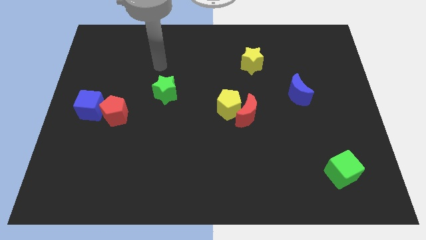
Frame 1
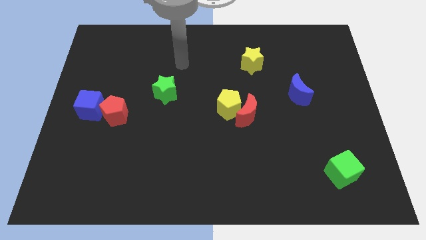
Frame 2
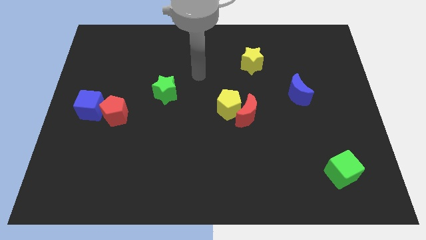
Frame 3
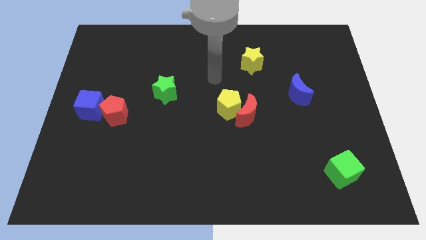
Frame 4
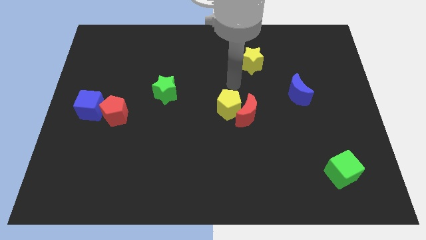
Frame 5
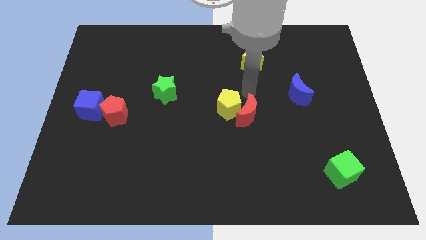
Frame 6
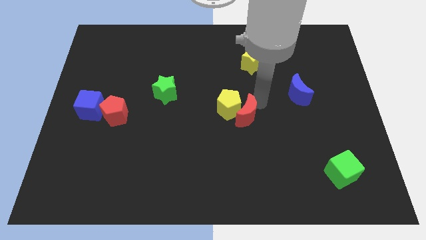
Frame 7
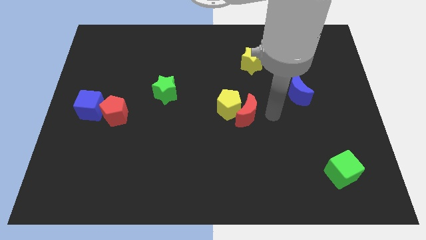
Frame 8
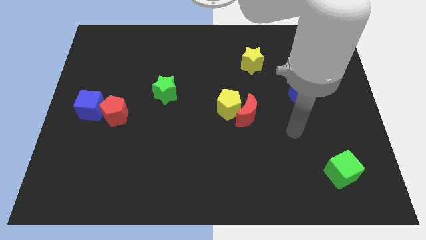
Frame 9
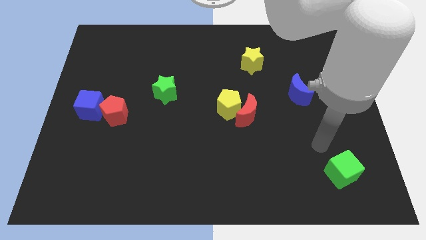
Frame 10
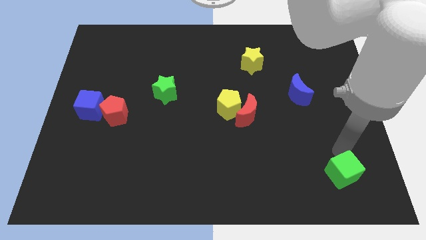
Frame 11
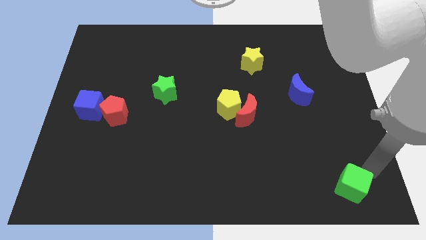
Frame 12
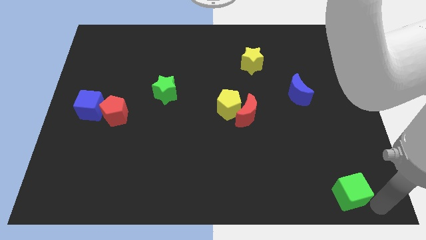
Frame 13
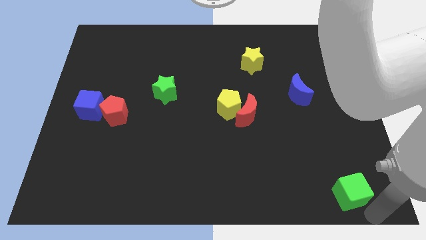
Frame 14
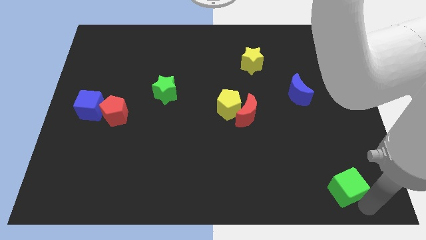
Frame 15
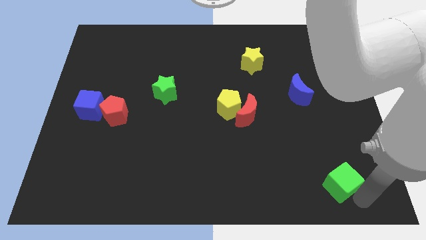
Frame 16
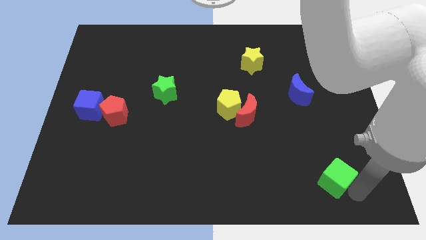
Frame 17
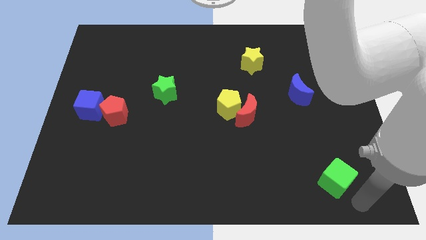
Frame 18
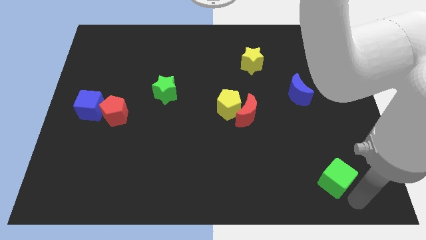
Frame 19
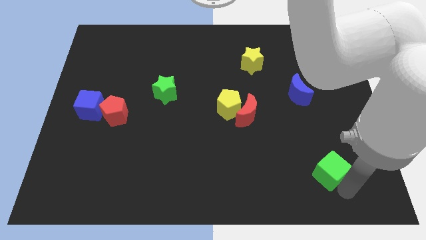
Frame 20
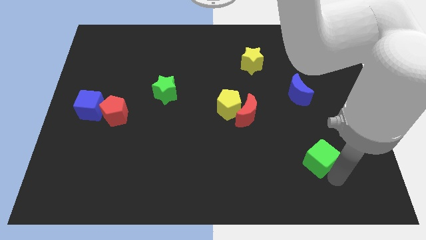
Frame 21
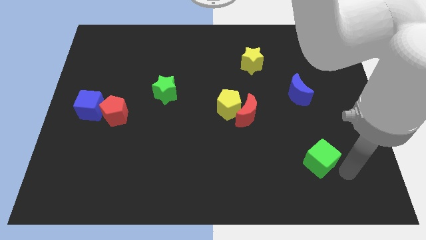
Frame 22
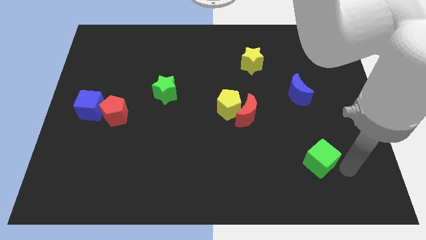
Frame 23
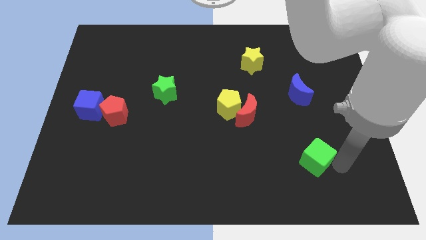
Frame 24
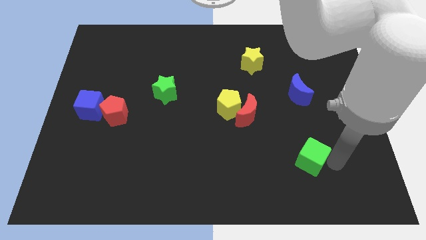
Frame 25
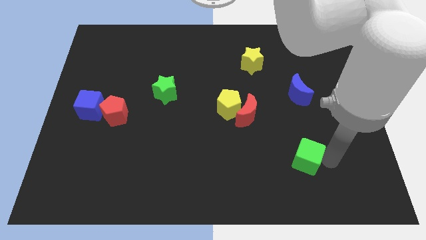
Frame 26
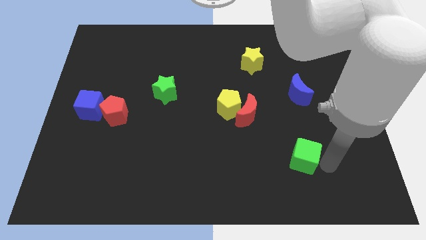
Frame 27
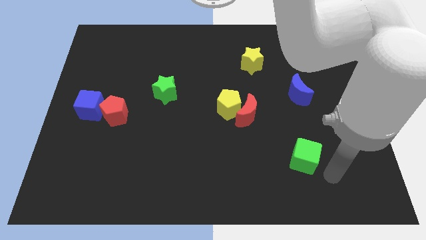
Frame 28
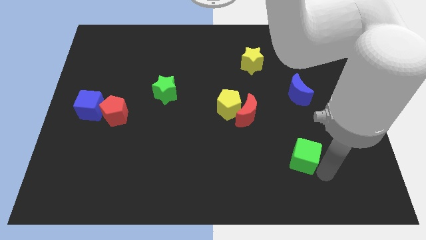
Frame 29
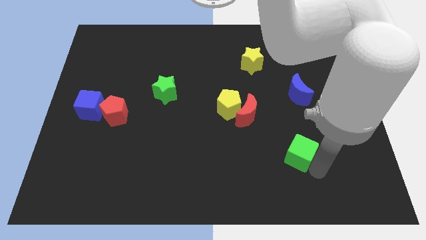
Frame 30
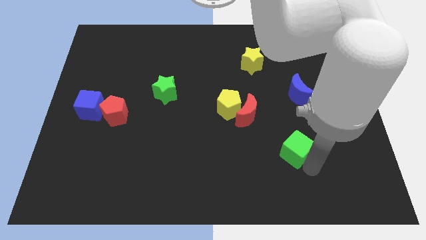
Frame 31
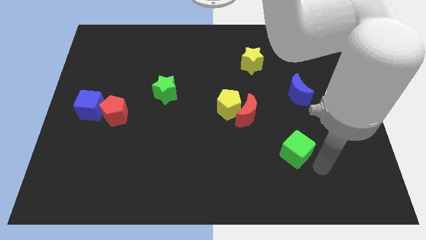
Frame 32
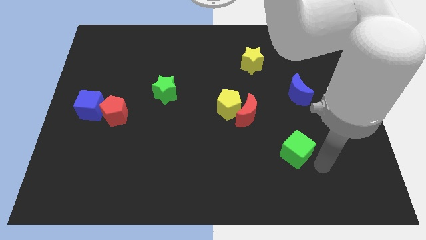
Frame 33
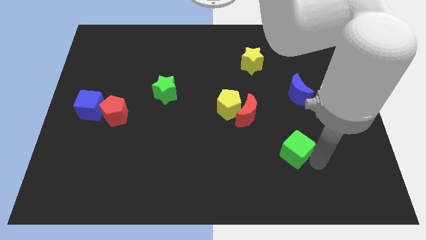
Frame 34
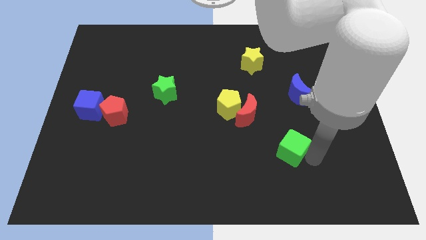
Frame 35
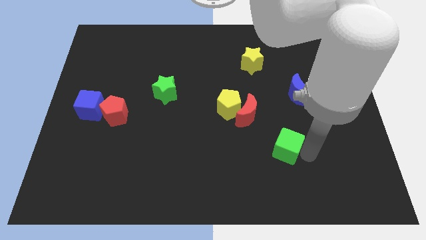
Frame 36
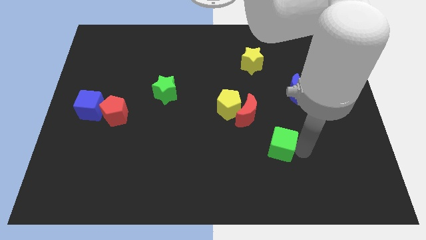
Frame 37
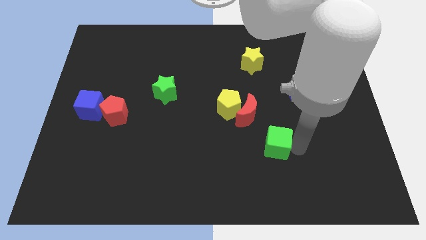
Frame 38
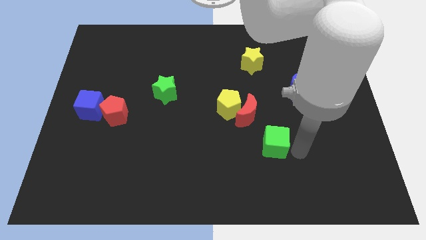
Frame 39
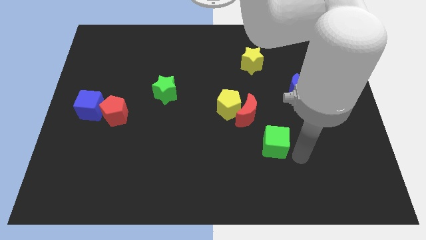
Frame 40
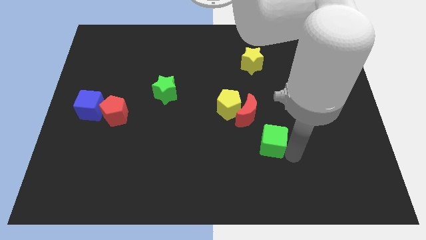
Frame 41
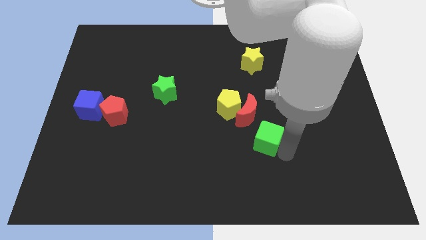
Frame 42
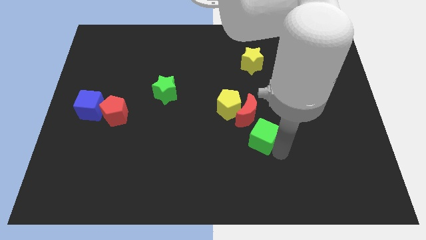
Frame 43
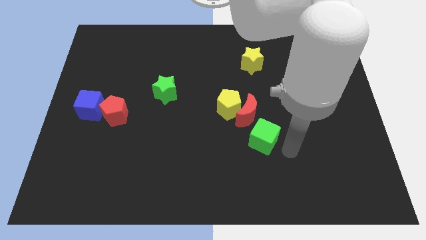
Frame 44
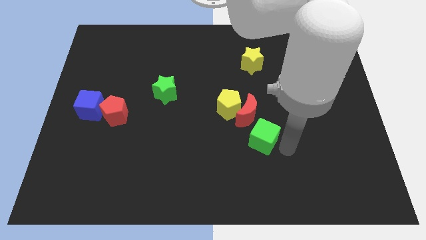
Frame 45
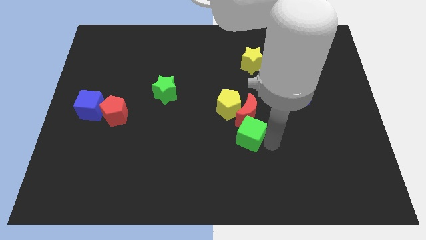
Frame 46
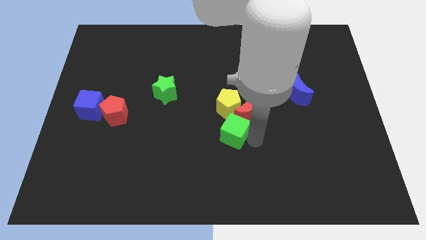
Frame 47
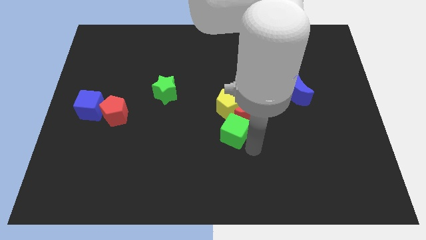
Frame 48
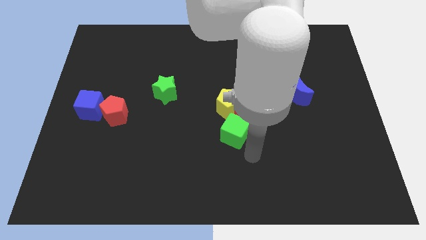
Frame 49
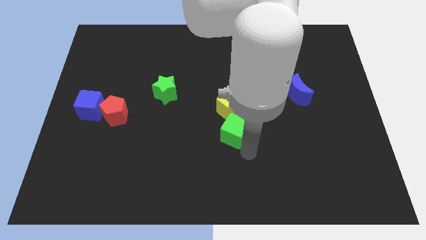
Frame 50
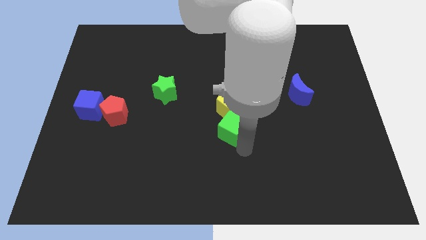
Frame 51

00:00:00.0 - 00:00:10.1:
put the green cube just left of the red moon

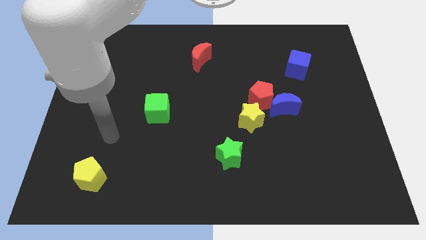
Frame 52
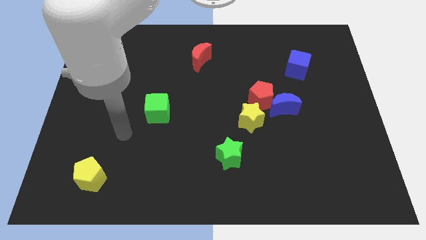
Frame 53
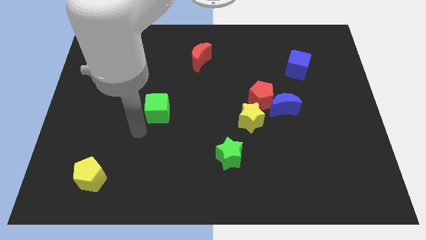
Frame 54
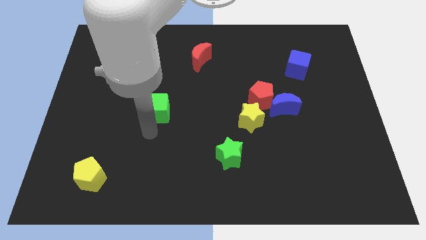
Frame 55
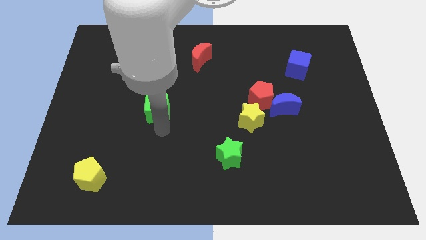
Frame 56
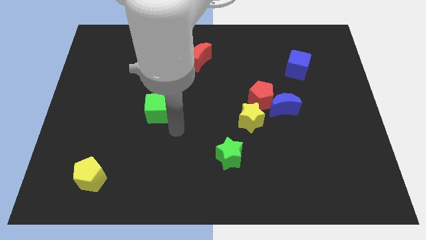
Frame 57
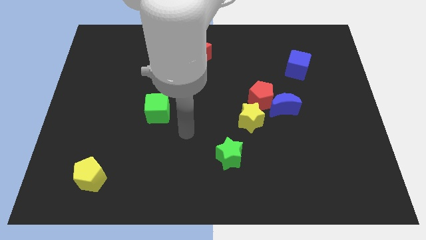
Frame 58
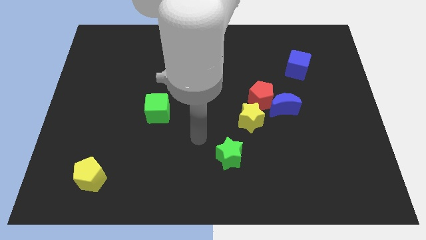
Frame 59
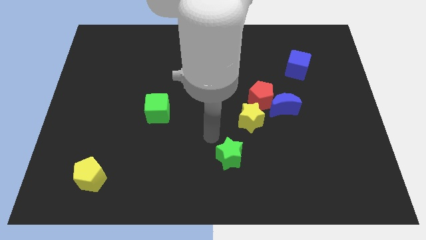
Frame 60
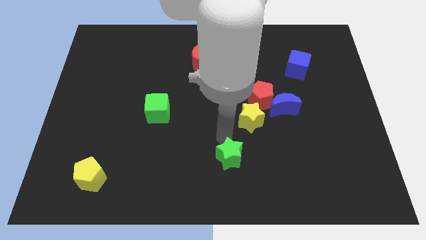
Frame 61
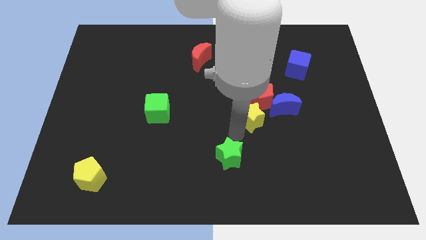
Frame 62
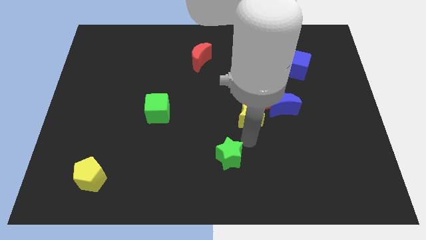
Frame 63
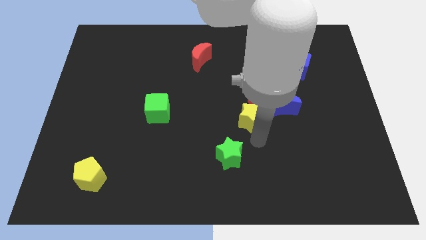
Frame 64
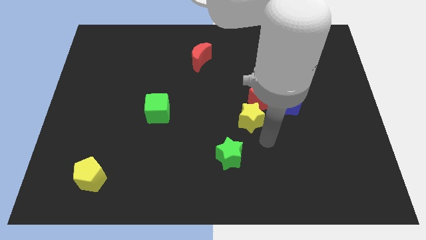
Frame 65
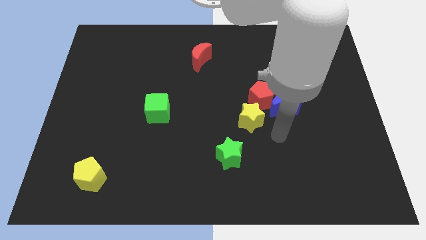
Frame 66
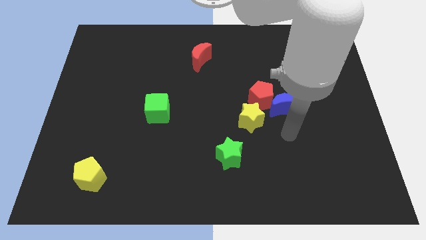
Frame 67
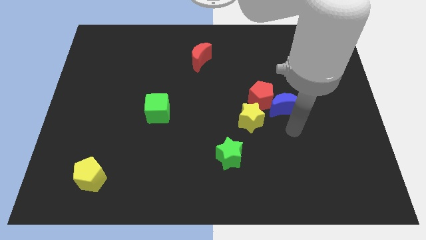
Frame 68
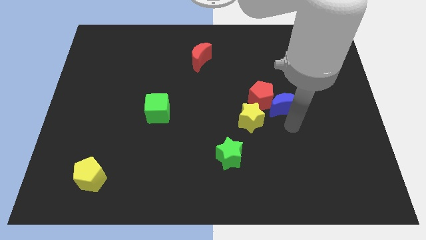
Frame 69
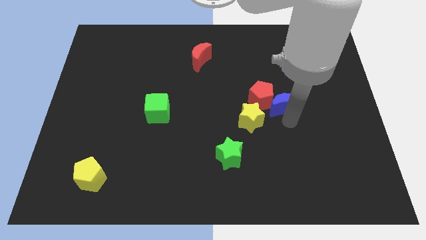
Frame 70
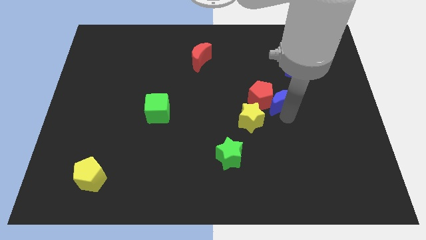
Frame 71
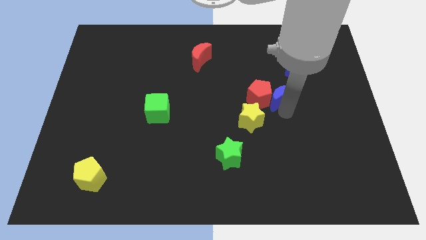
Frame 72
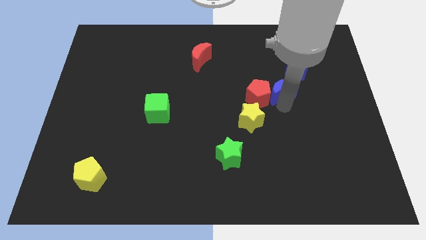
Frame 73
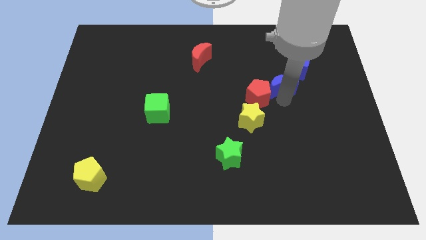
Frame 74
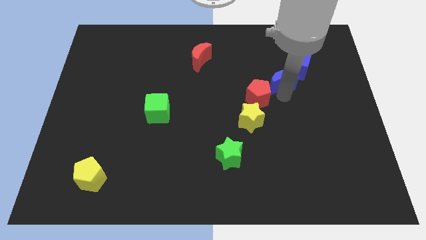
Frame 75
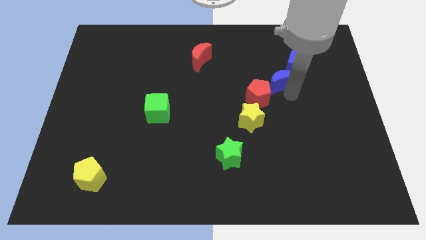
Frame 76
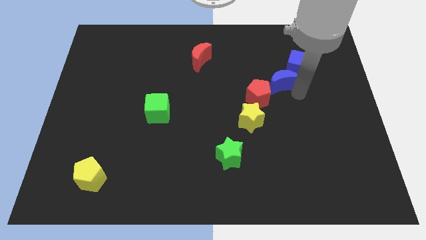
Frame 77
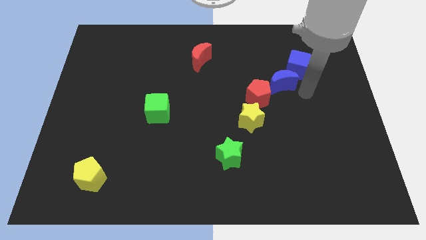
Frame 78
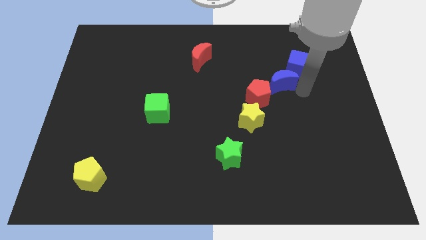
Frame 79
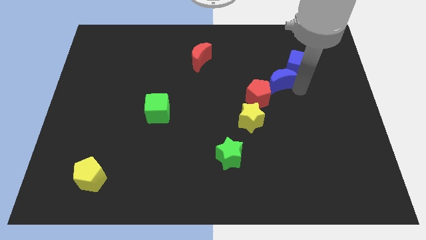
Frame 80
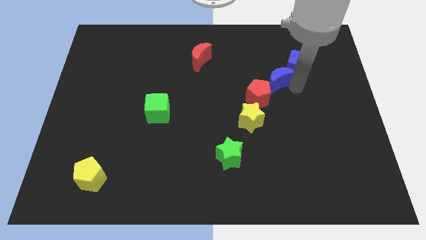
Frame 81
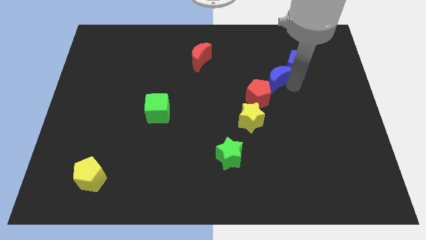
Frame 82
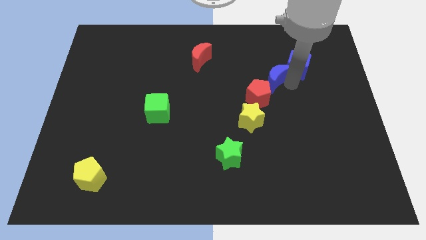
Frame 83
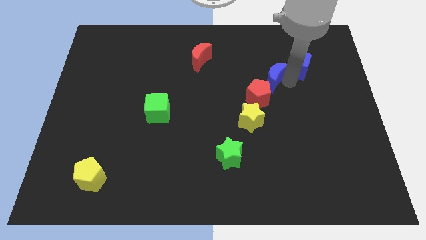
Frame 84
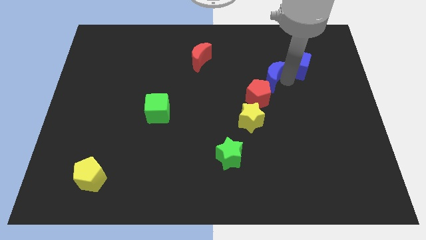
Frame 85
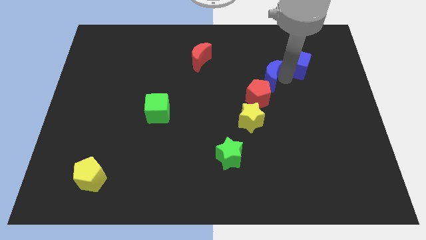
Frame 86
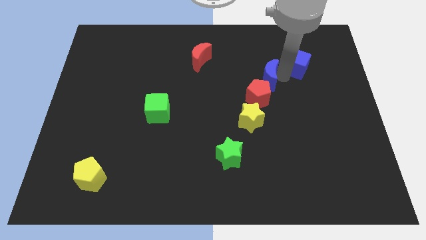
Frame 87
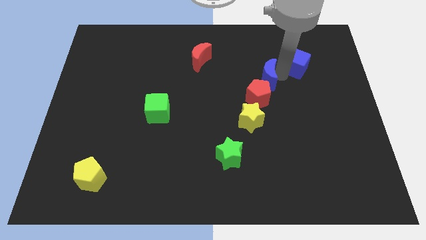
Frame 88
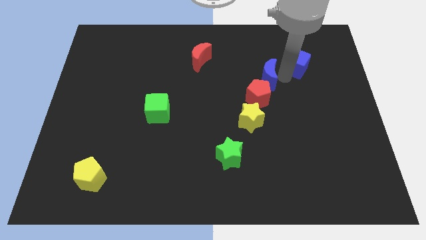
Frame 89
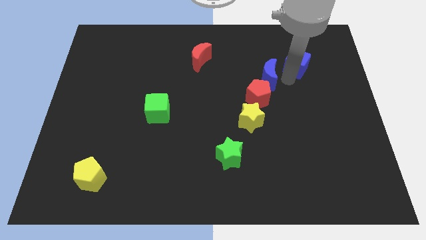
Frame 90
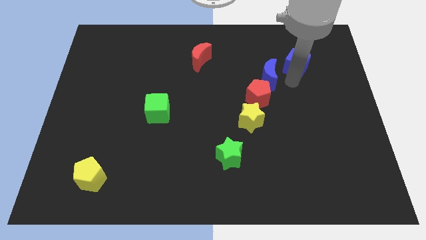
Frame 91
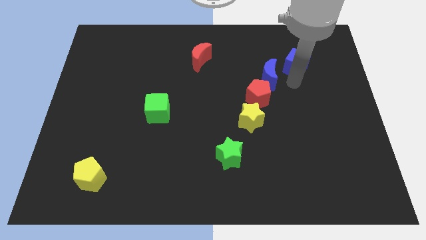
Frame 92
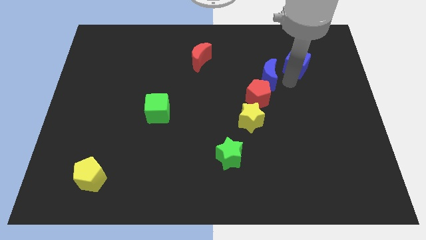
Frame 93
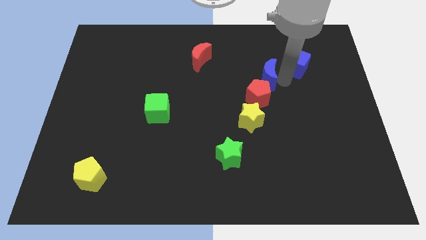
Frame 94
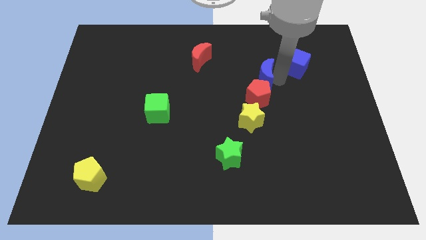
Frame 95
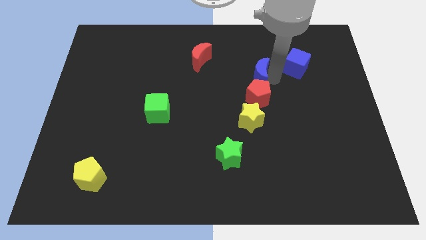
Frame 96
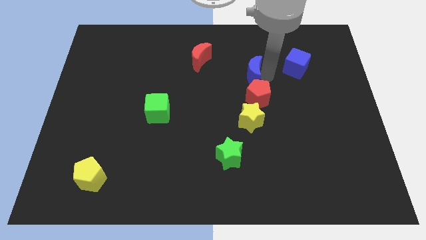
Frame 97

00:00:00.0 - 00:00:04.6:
push the blue moon diagonally up and to the left of the red pentagon
